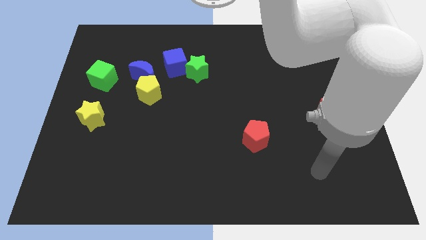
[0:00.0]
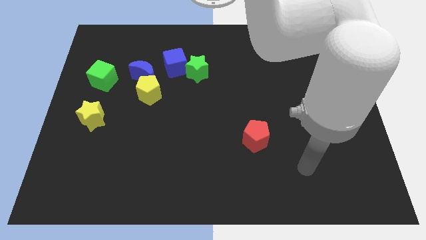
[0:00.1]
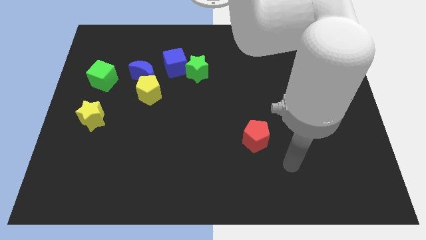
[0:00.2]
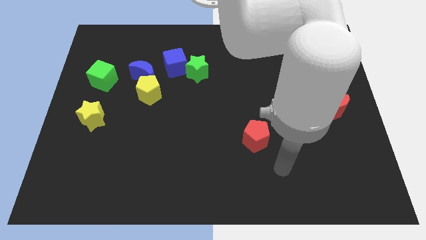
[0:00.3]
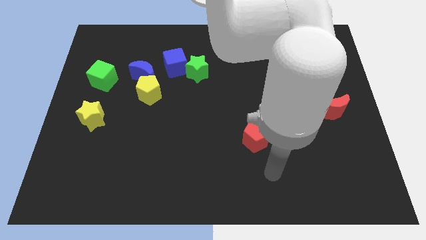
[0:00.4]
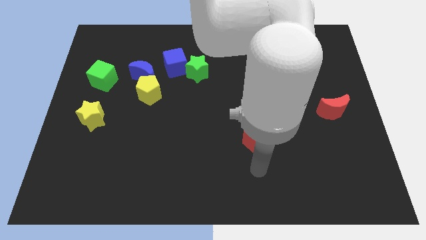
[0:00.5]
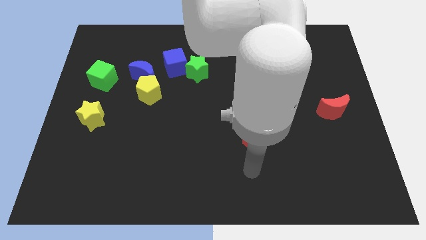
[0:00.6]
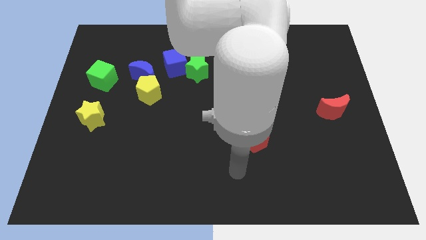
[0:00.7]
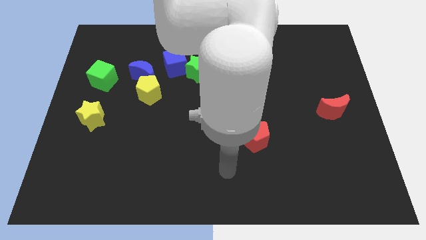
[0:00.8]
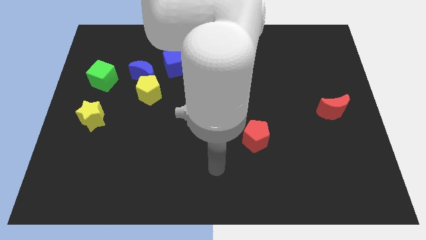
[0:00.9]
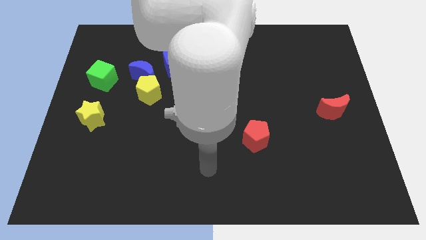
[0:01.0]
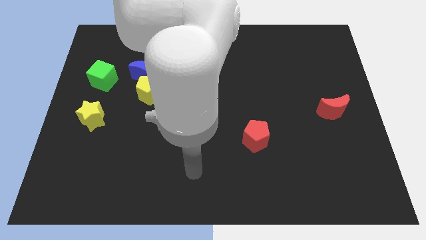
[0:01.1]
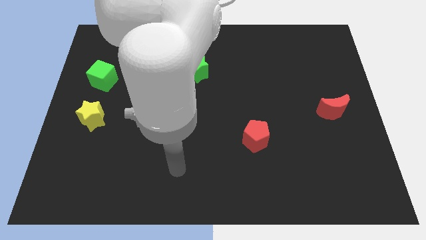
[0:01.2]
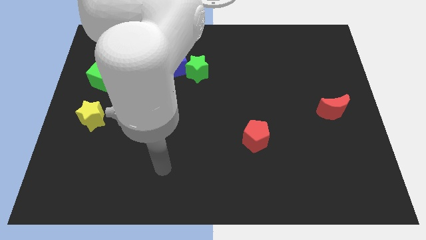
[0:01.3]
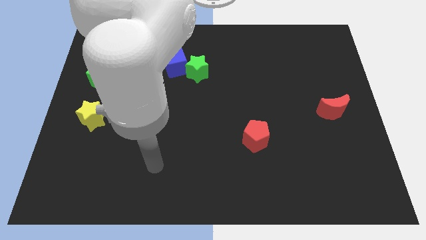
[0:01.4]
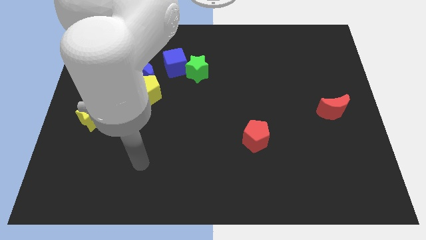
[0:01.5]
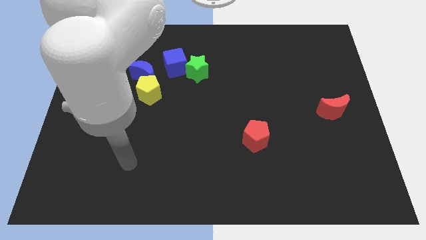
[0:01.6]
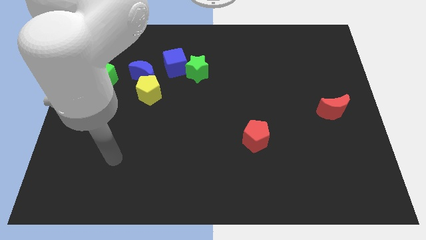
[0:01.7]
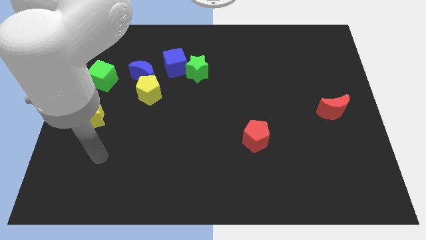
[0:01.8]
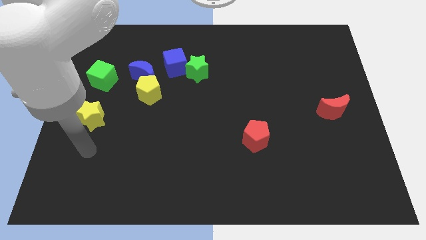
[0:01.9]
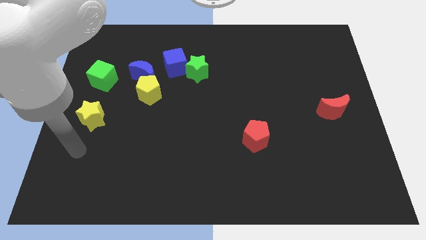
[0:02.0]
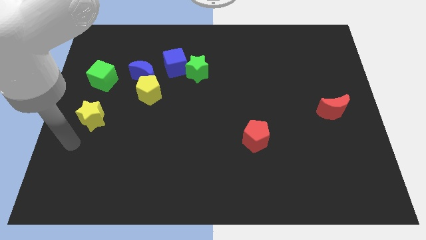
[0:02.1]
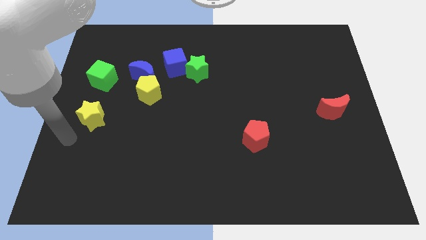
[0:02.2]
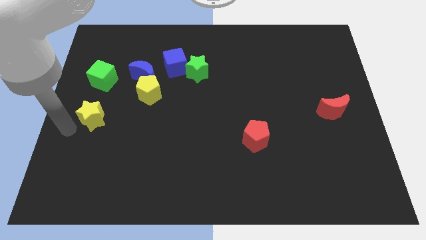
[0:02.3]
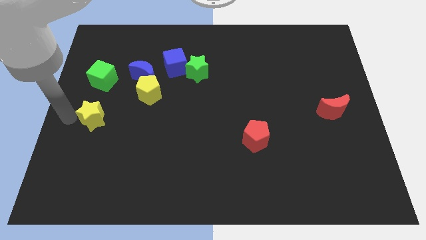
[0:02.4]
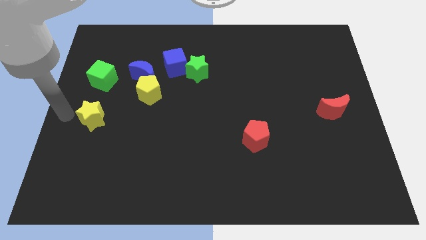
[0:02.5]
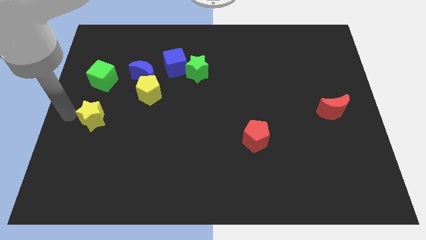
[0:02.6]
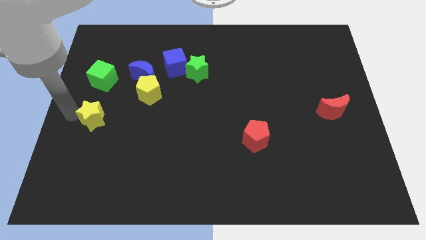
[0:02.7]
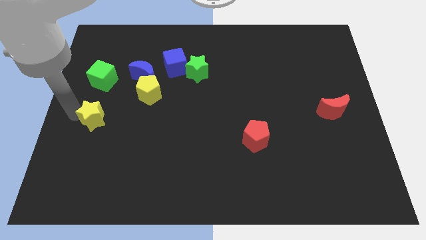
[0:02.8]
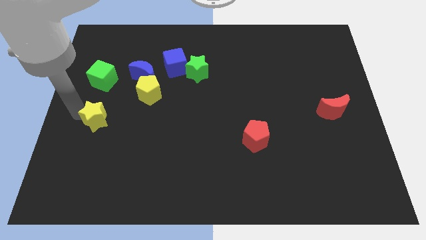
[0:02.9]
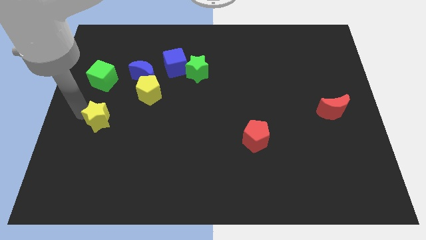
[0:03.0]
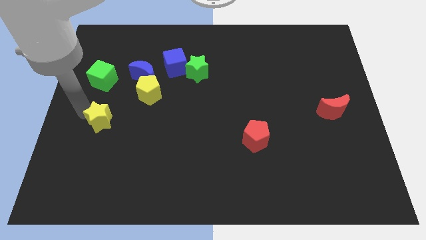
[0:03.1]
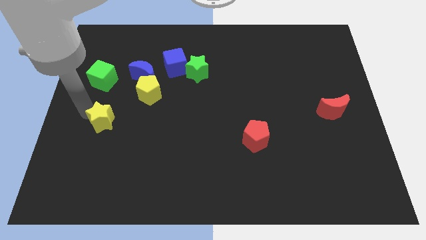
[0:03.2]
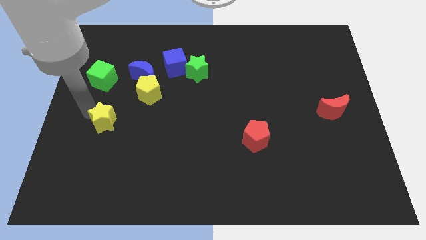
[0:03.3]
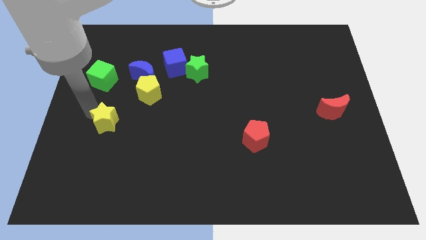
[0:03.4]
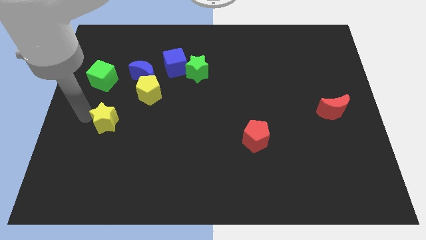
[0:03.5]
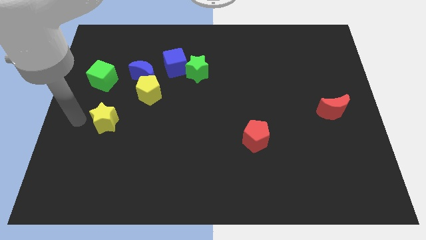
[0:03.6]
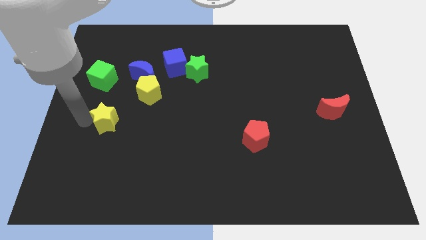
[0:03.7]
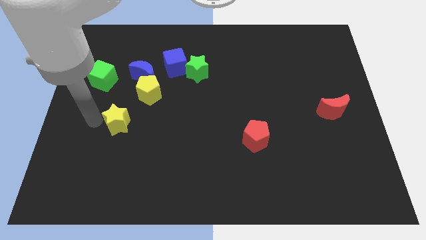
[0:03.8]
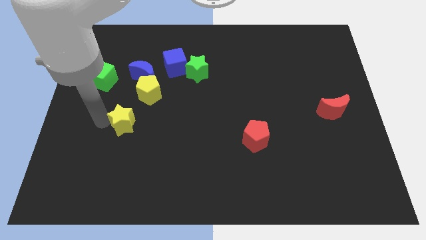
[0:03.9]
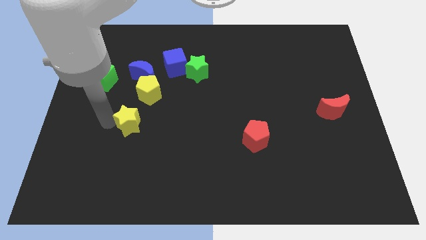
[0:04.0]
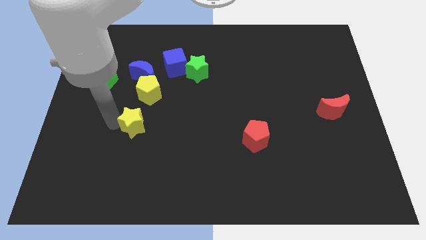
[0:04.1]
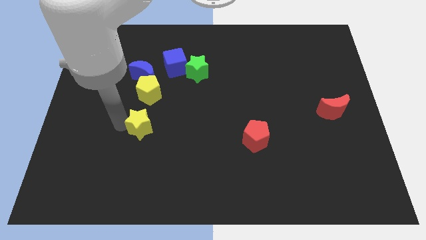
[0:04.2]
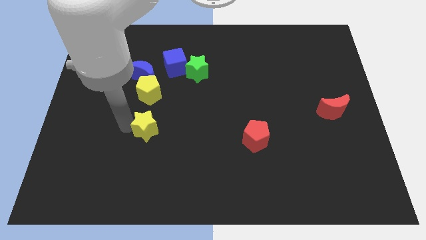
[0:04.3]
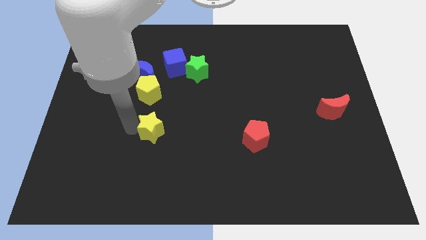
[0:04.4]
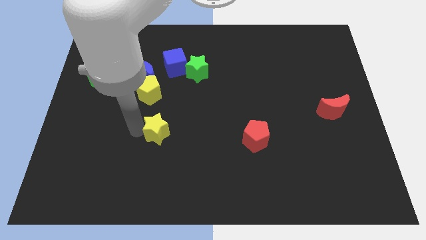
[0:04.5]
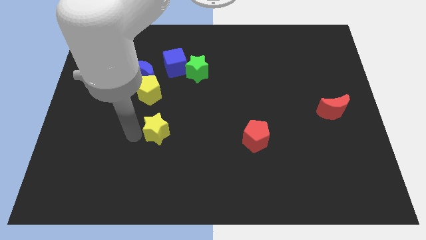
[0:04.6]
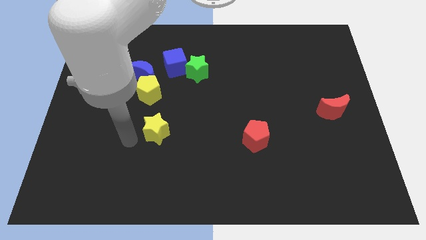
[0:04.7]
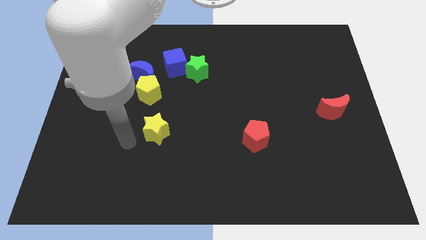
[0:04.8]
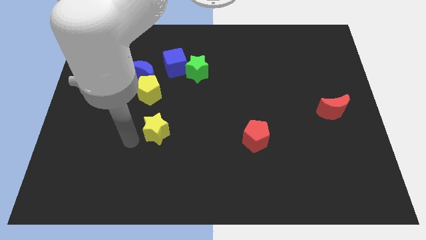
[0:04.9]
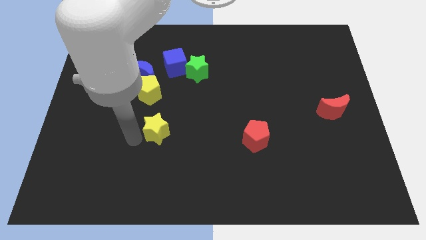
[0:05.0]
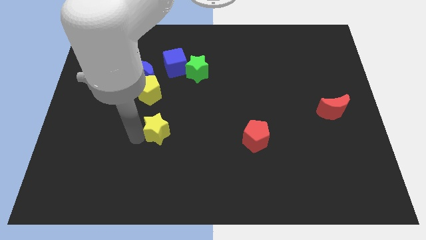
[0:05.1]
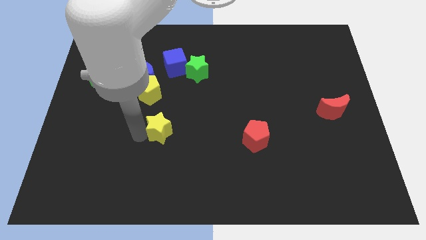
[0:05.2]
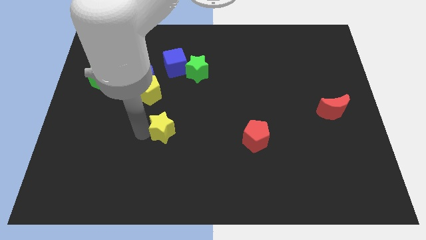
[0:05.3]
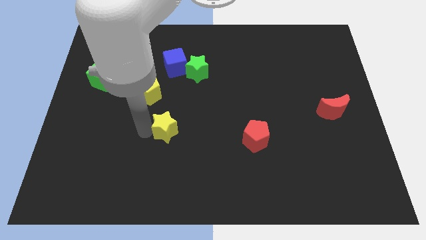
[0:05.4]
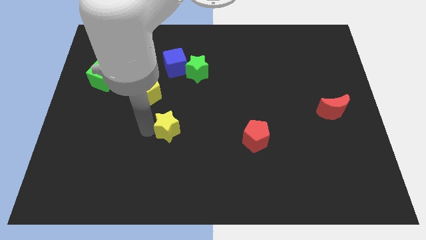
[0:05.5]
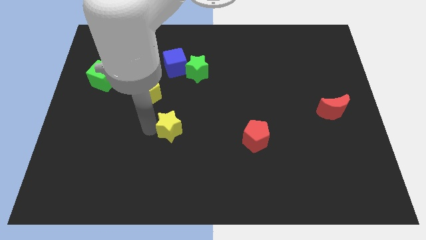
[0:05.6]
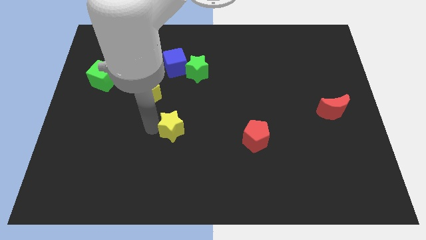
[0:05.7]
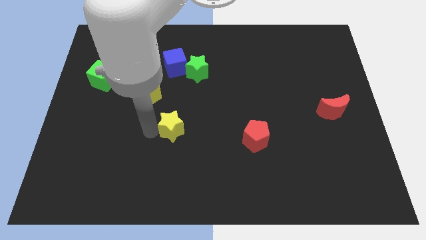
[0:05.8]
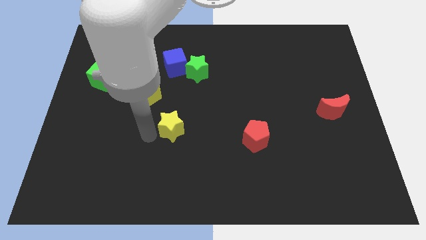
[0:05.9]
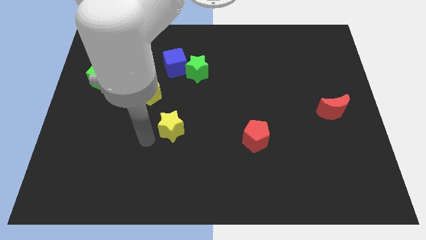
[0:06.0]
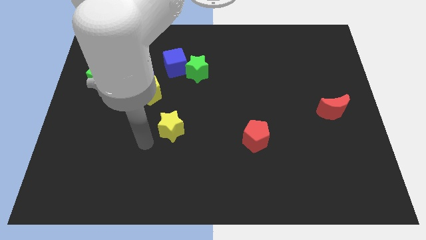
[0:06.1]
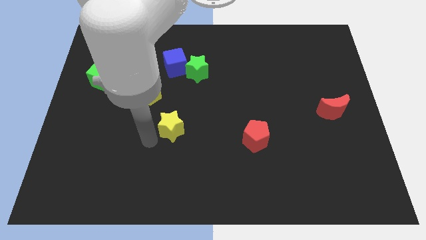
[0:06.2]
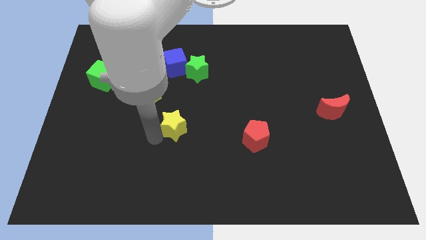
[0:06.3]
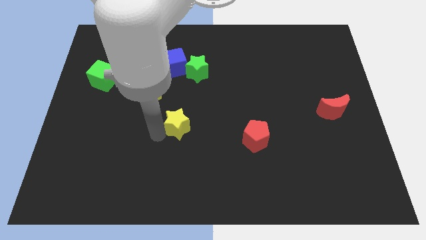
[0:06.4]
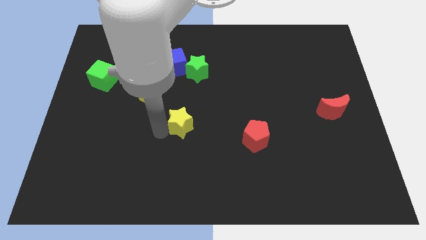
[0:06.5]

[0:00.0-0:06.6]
move the yellow star right

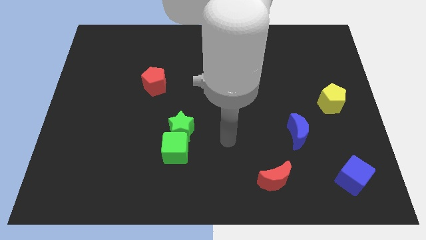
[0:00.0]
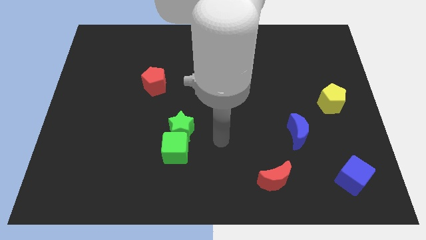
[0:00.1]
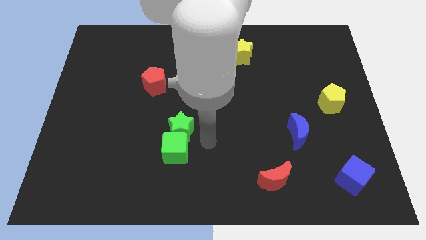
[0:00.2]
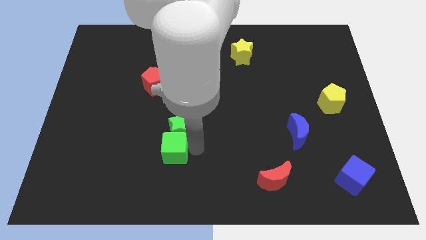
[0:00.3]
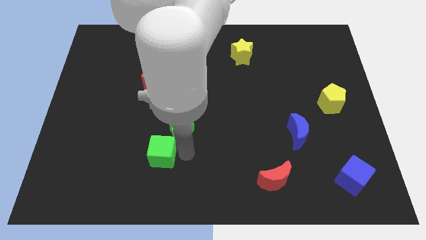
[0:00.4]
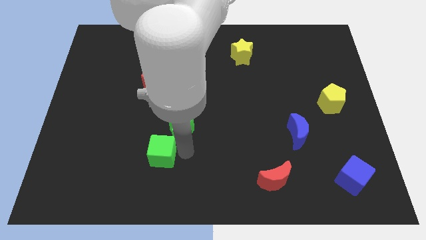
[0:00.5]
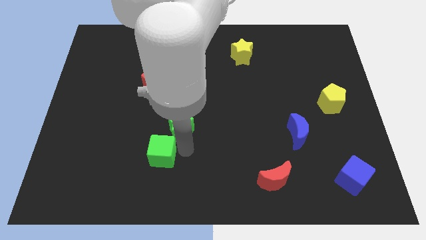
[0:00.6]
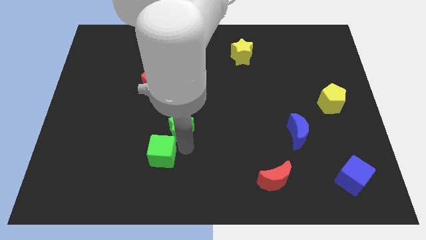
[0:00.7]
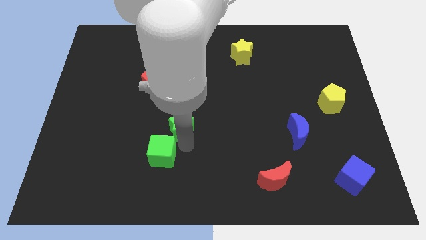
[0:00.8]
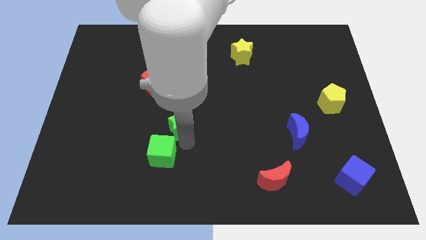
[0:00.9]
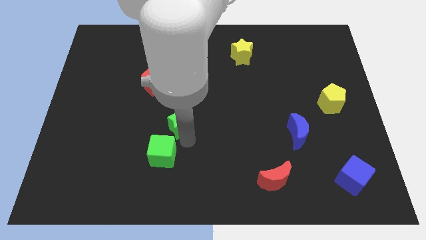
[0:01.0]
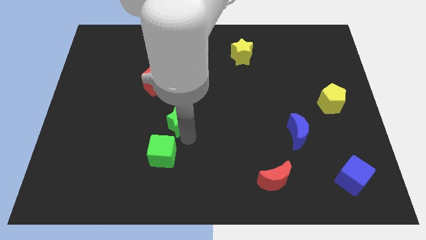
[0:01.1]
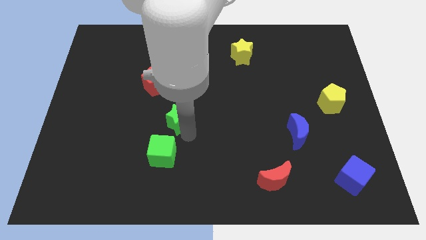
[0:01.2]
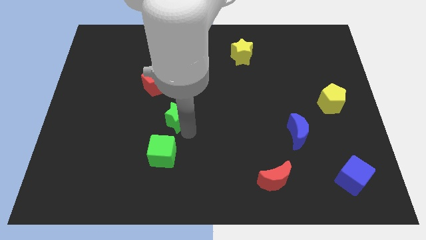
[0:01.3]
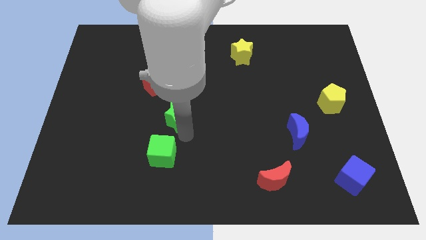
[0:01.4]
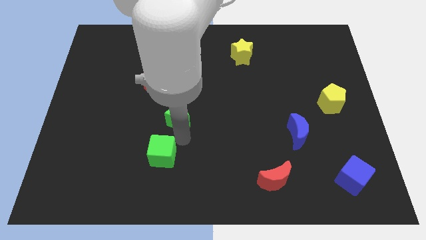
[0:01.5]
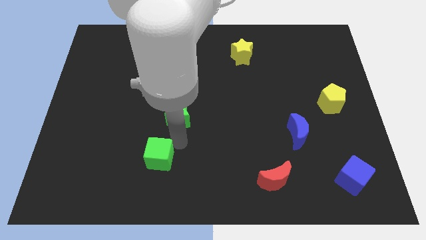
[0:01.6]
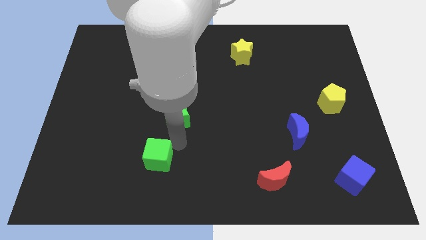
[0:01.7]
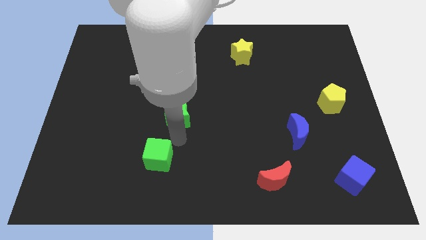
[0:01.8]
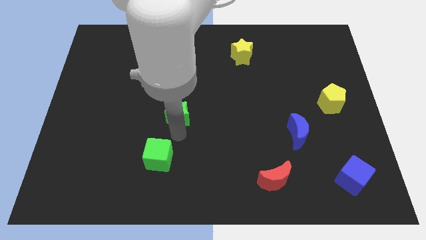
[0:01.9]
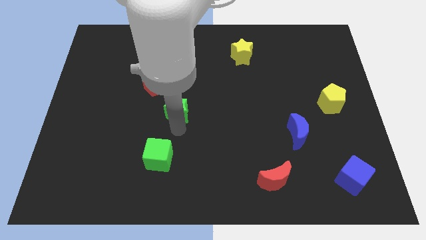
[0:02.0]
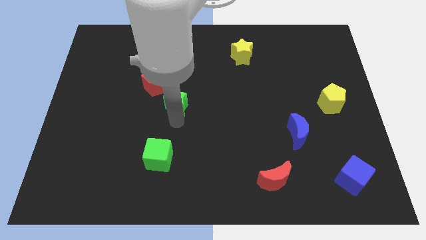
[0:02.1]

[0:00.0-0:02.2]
move the green star somewhat up
